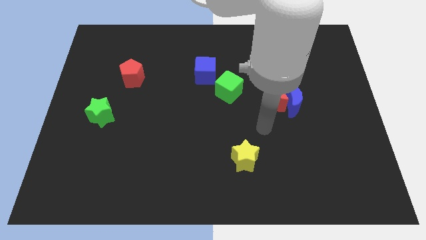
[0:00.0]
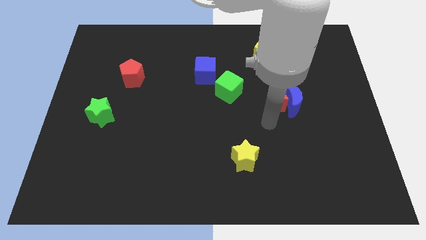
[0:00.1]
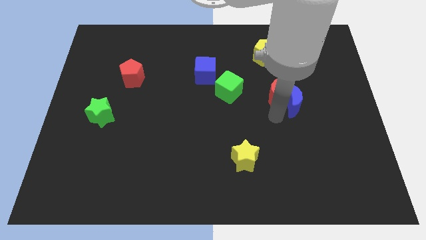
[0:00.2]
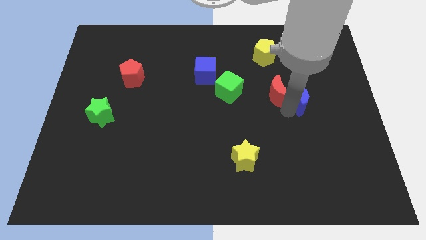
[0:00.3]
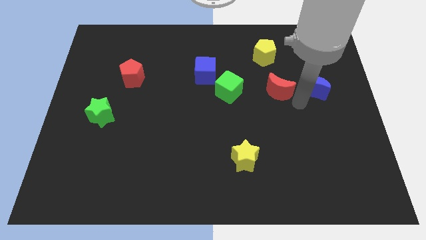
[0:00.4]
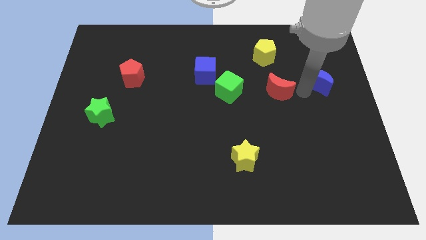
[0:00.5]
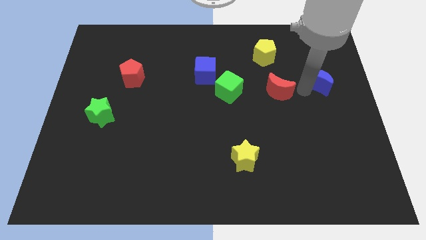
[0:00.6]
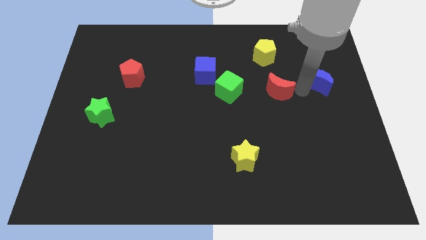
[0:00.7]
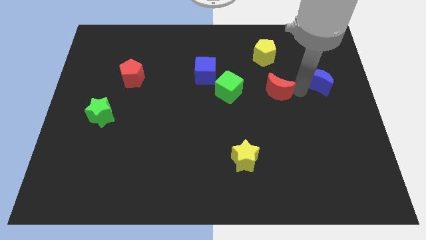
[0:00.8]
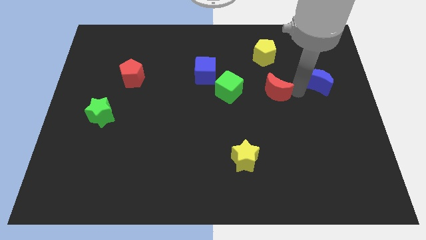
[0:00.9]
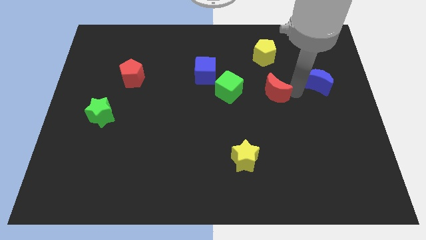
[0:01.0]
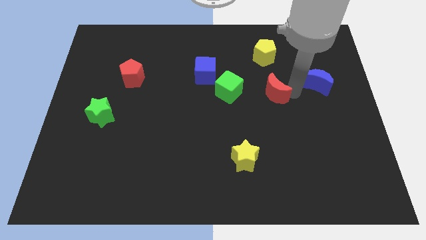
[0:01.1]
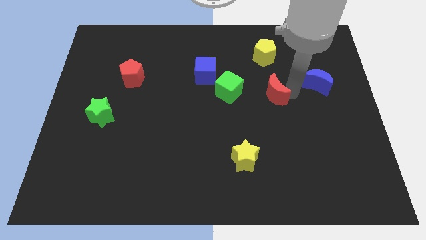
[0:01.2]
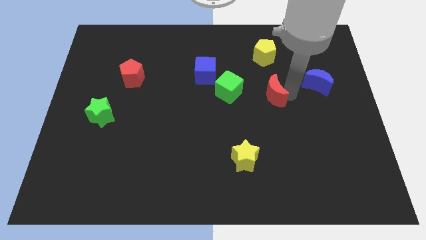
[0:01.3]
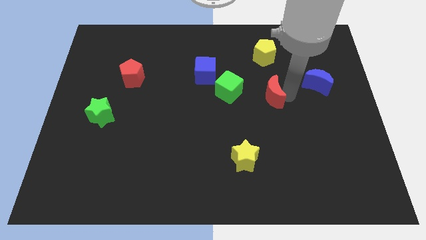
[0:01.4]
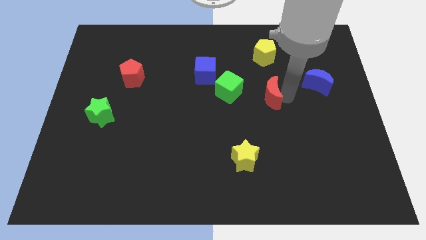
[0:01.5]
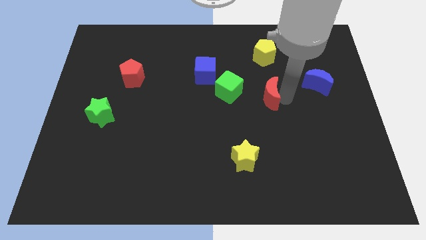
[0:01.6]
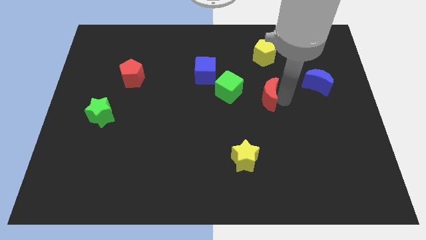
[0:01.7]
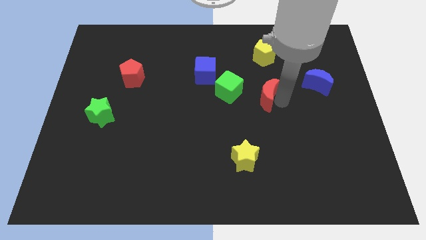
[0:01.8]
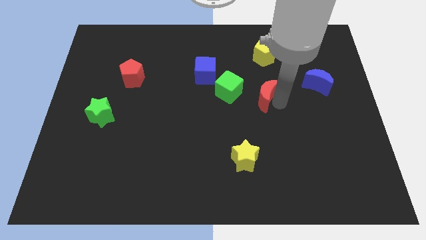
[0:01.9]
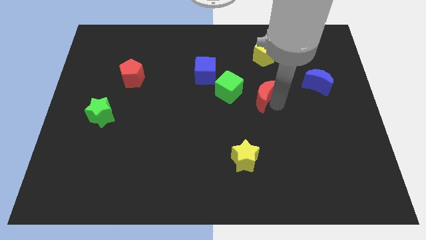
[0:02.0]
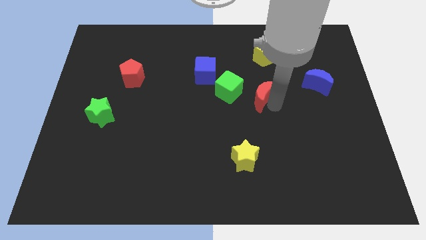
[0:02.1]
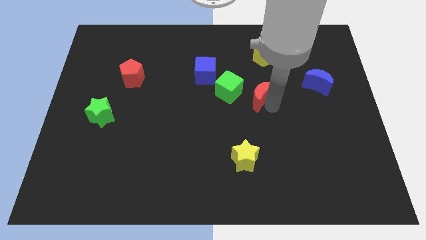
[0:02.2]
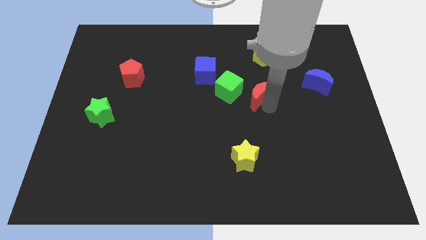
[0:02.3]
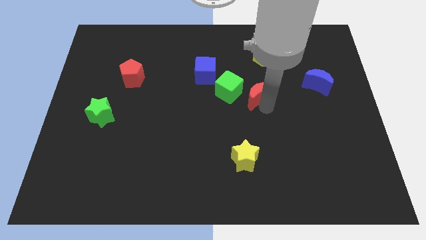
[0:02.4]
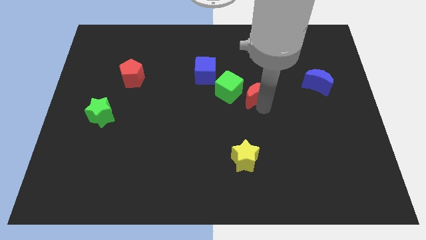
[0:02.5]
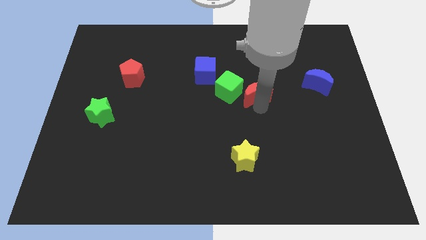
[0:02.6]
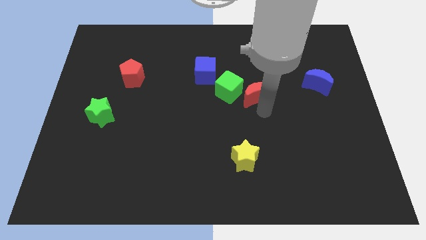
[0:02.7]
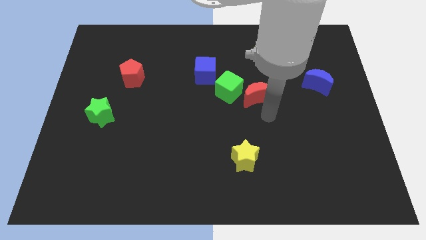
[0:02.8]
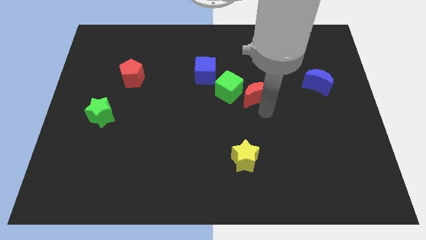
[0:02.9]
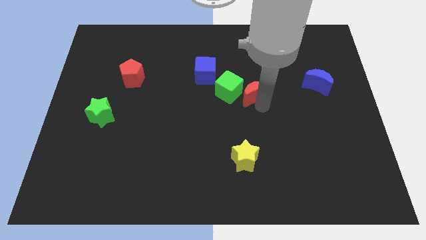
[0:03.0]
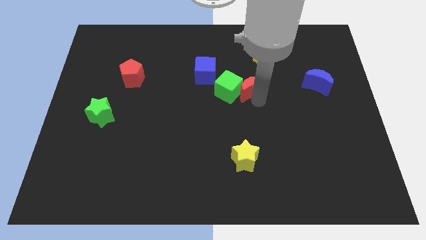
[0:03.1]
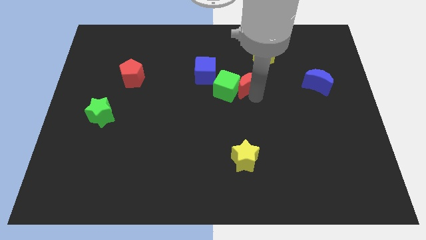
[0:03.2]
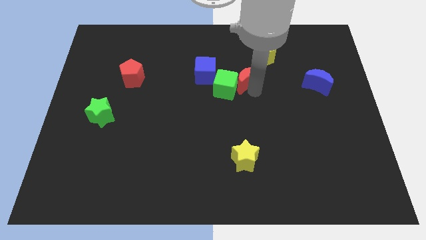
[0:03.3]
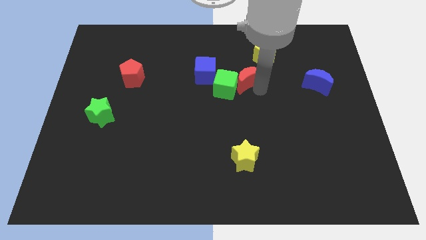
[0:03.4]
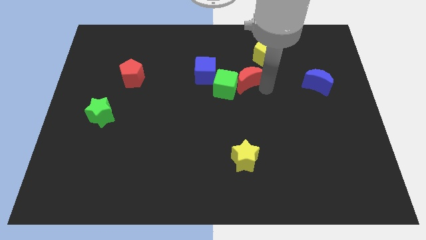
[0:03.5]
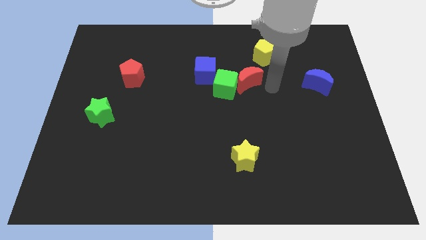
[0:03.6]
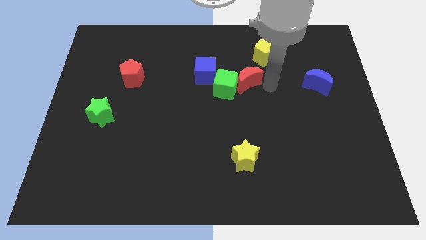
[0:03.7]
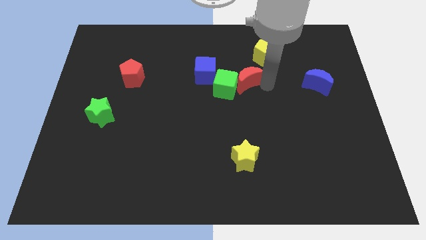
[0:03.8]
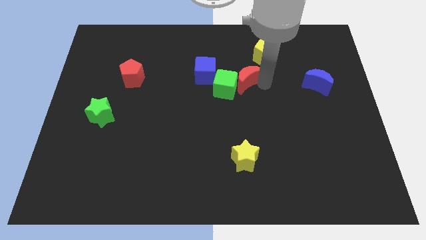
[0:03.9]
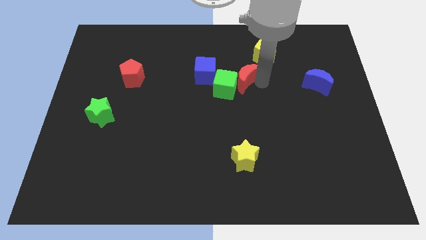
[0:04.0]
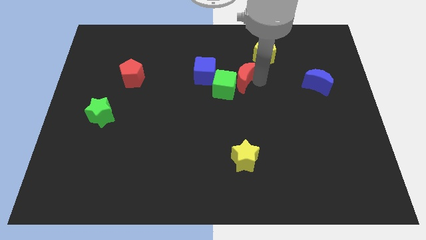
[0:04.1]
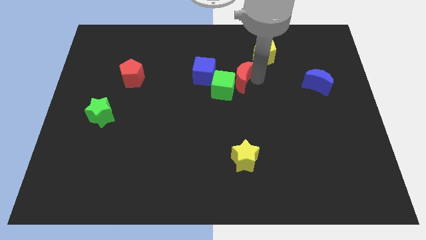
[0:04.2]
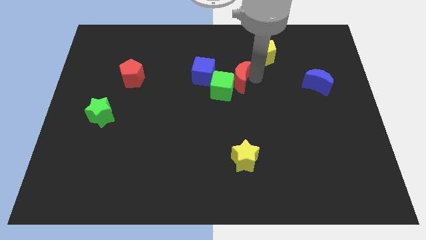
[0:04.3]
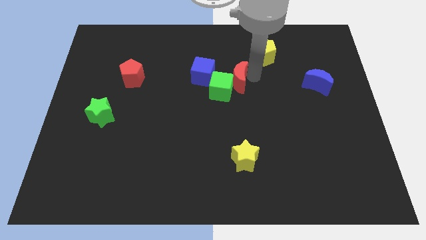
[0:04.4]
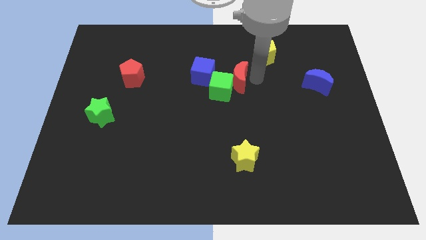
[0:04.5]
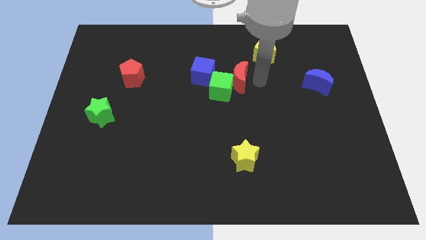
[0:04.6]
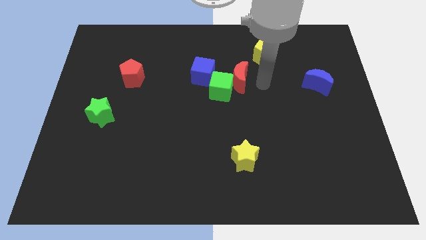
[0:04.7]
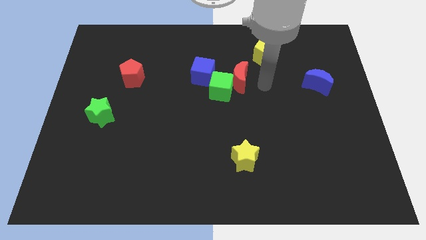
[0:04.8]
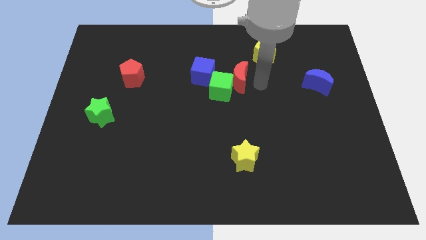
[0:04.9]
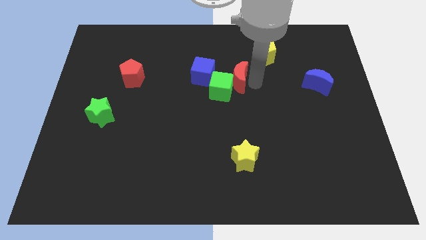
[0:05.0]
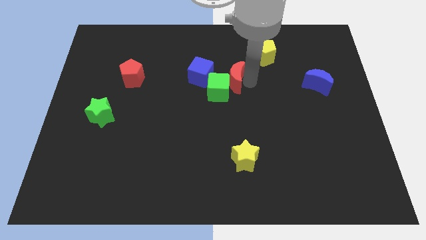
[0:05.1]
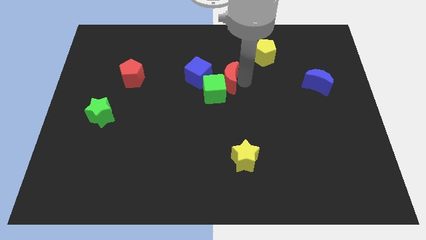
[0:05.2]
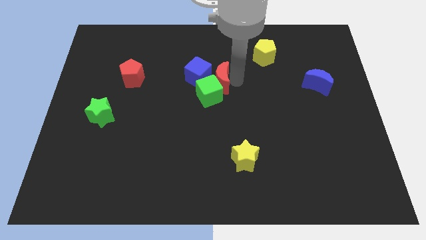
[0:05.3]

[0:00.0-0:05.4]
move the red moon to the blue cube

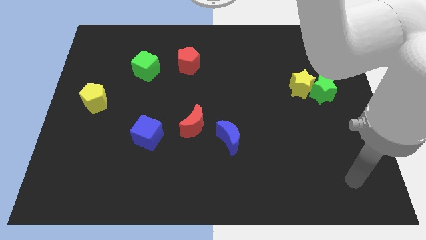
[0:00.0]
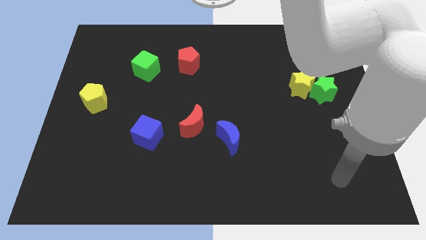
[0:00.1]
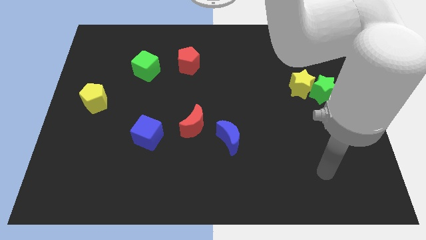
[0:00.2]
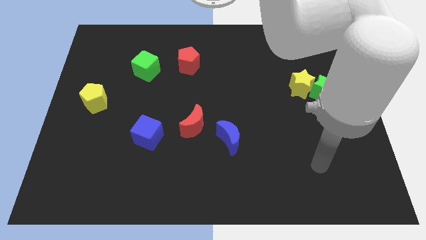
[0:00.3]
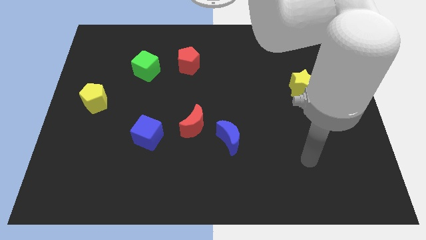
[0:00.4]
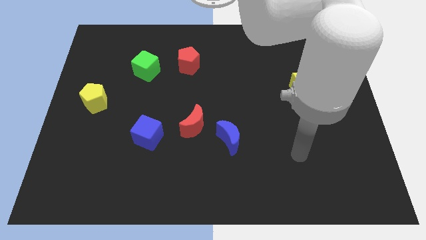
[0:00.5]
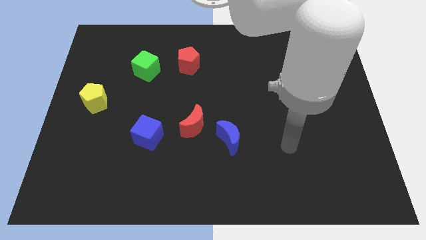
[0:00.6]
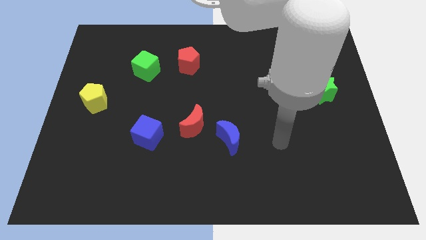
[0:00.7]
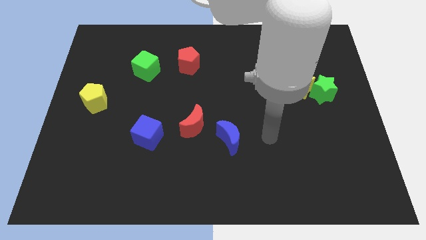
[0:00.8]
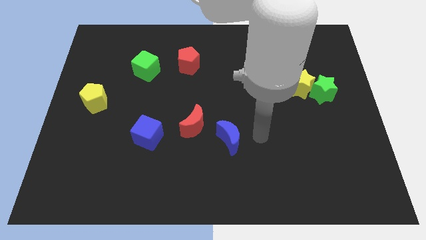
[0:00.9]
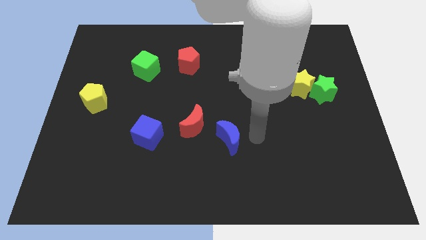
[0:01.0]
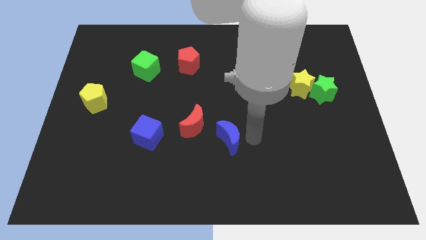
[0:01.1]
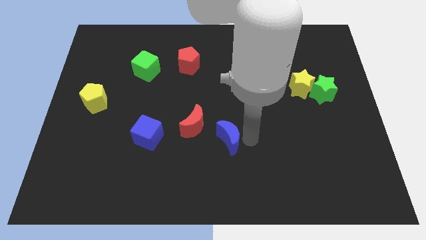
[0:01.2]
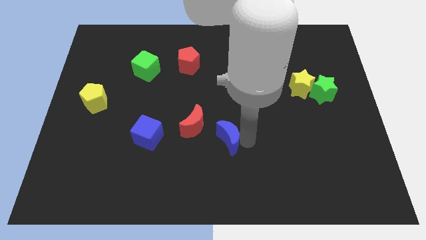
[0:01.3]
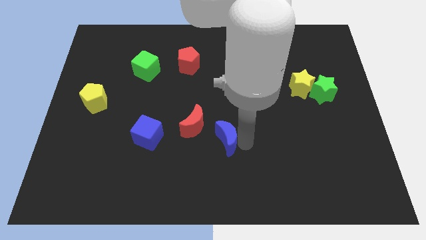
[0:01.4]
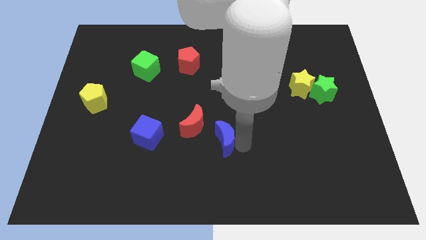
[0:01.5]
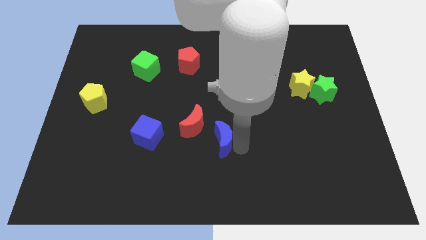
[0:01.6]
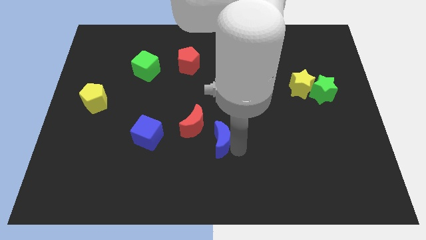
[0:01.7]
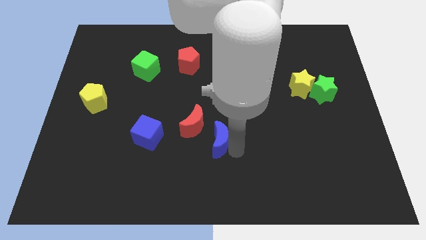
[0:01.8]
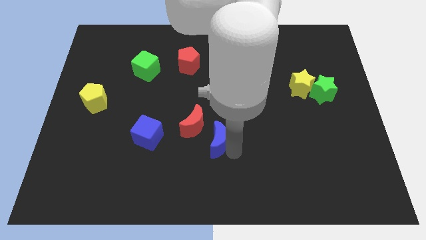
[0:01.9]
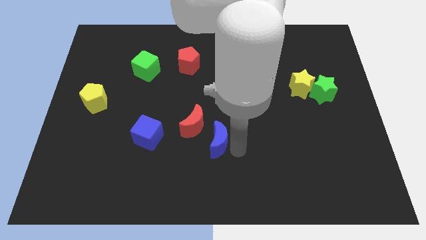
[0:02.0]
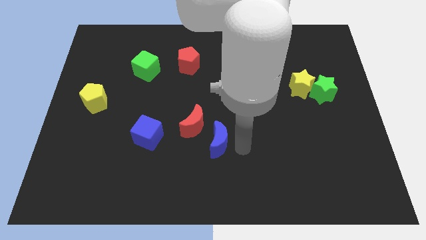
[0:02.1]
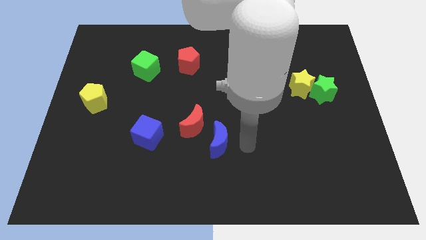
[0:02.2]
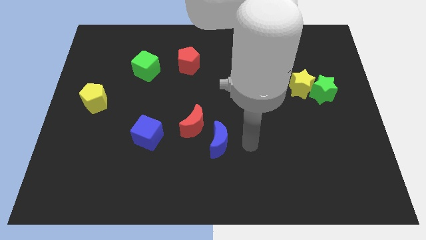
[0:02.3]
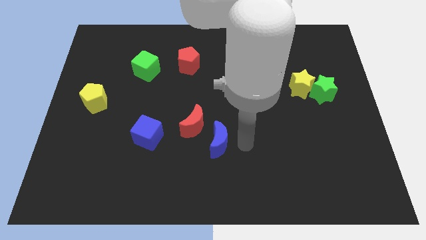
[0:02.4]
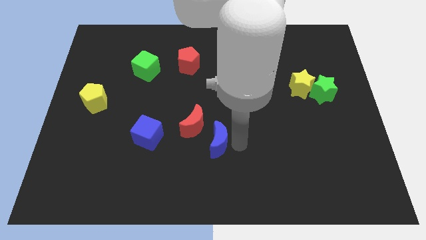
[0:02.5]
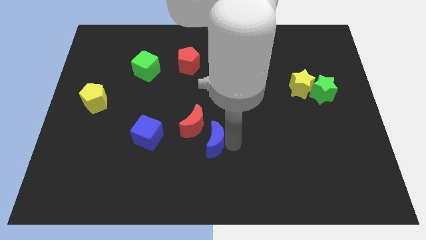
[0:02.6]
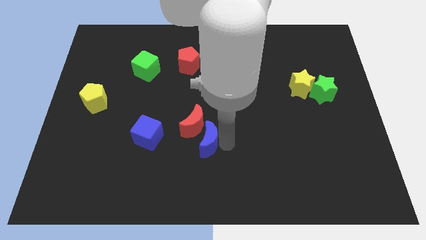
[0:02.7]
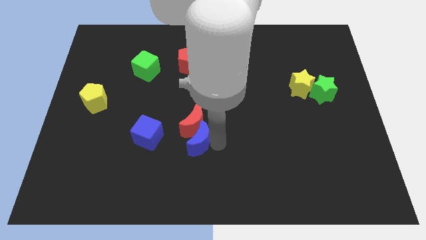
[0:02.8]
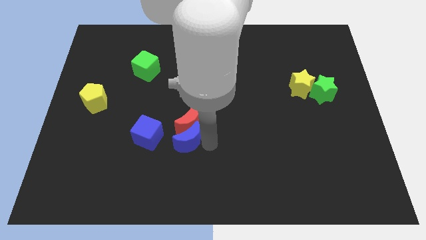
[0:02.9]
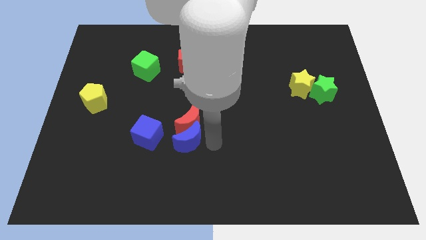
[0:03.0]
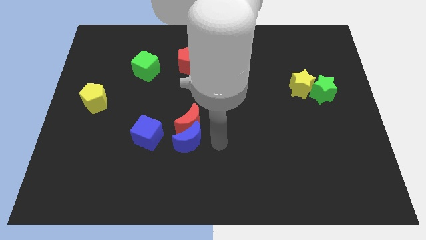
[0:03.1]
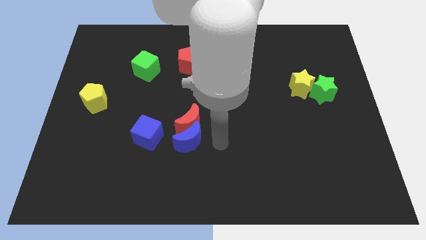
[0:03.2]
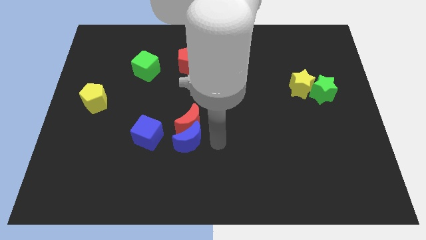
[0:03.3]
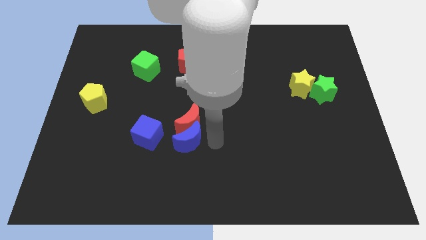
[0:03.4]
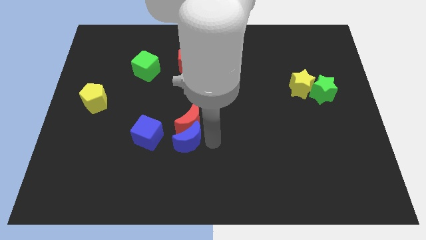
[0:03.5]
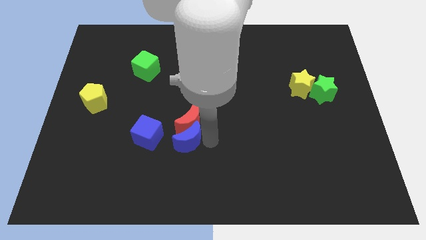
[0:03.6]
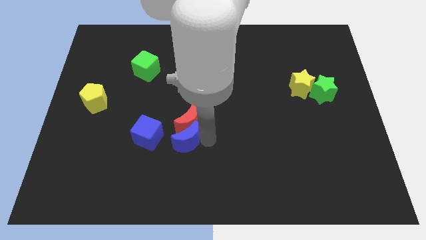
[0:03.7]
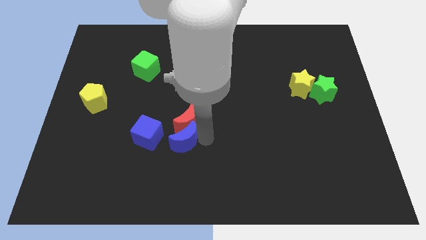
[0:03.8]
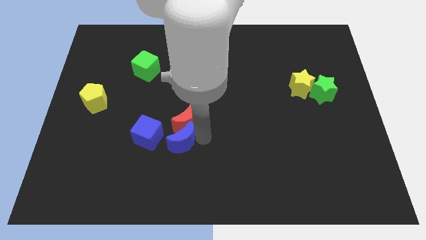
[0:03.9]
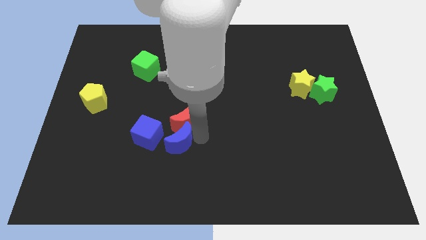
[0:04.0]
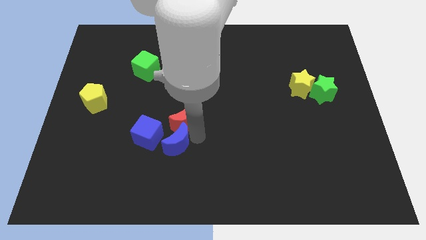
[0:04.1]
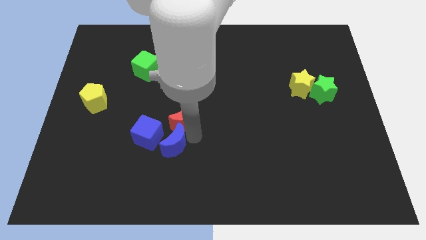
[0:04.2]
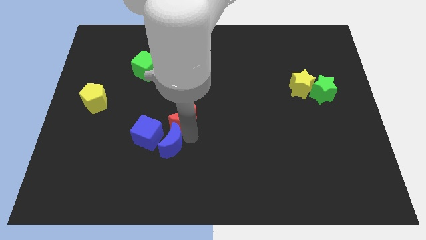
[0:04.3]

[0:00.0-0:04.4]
push the blue moon next to the blue cube
